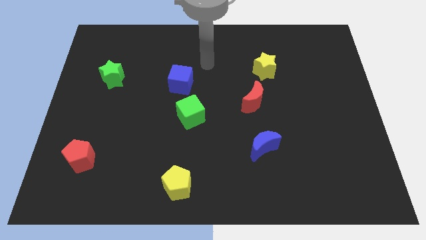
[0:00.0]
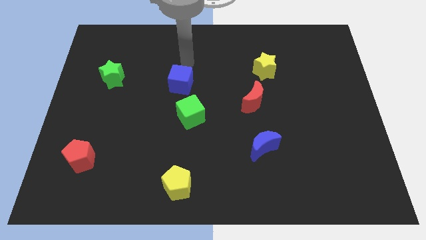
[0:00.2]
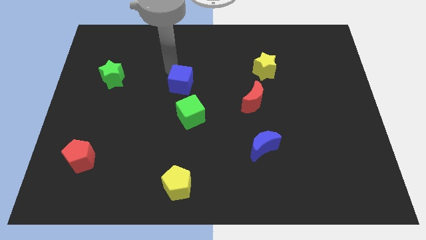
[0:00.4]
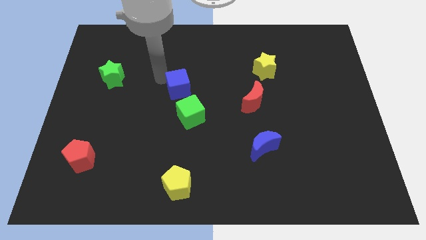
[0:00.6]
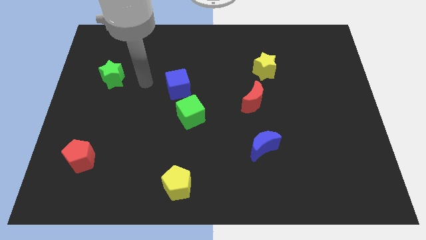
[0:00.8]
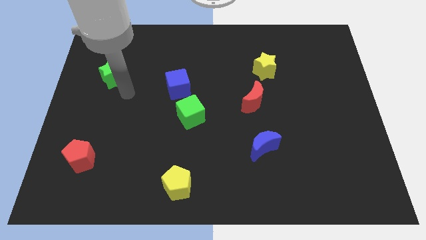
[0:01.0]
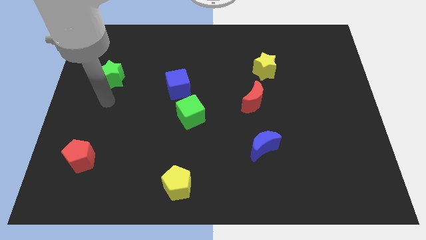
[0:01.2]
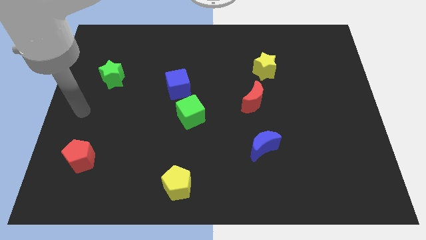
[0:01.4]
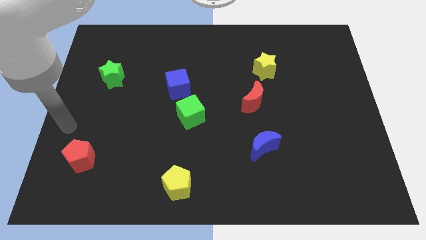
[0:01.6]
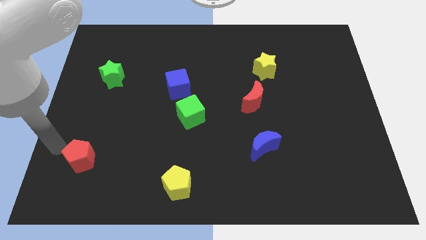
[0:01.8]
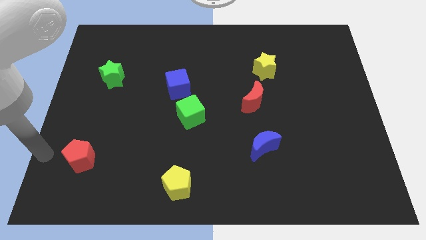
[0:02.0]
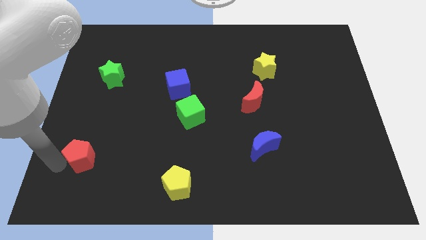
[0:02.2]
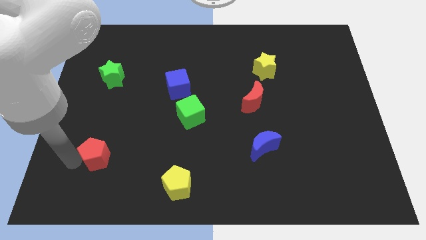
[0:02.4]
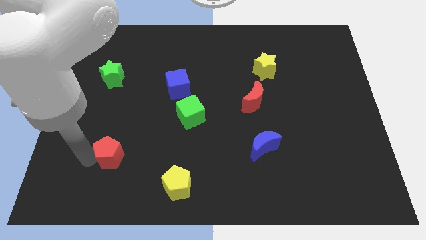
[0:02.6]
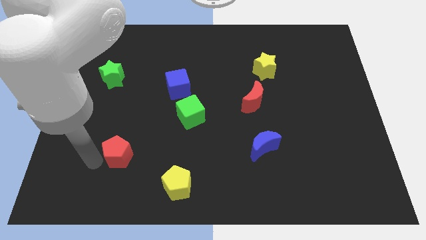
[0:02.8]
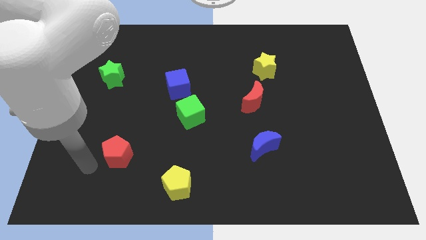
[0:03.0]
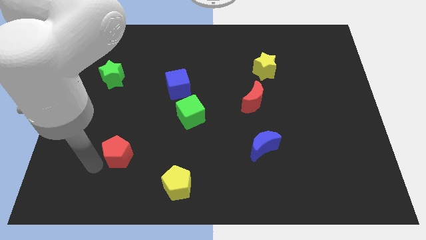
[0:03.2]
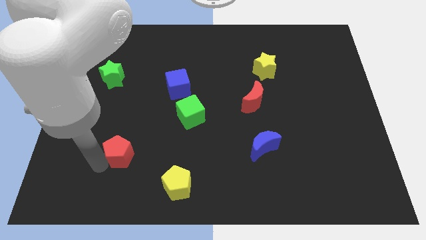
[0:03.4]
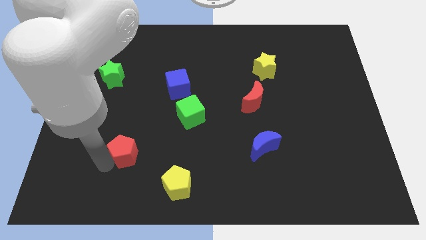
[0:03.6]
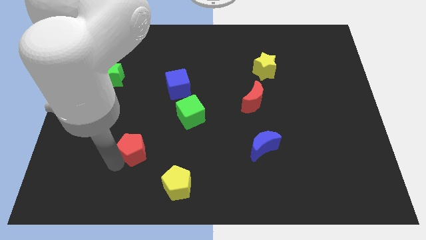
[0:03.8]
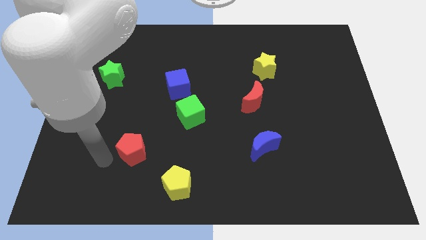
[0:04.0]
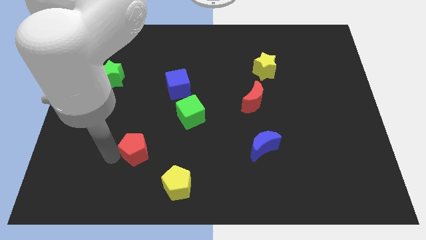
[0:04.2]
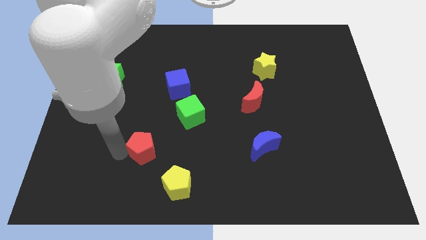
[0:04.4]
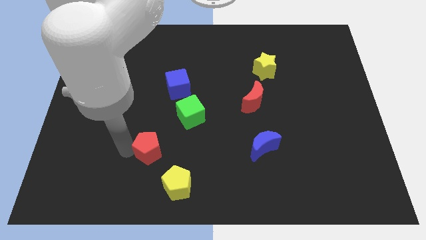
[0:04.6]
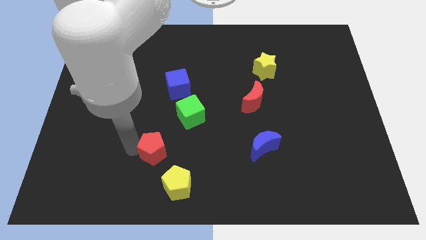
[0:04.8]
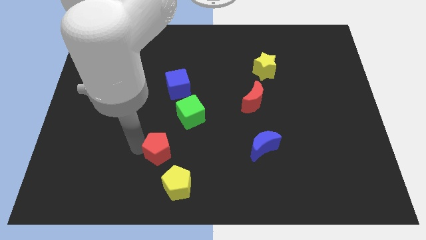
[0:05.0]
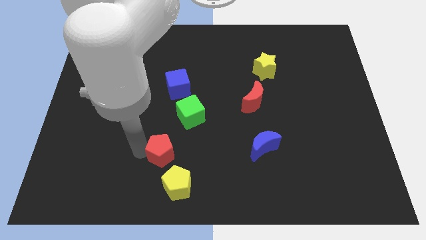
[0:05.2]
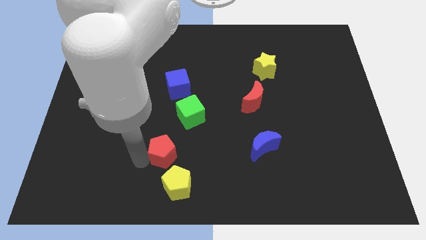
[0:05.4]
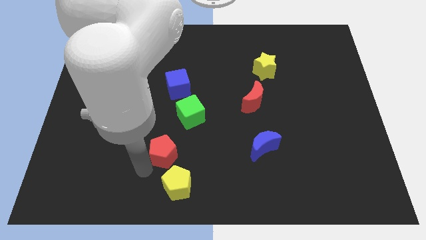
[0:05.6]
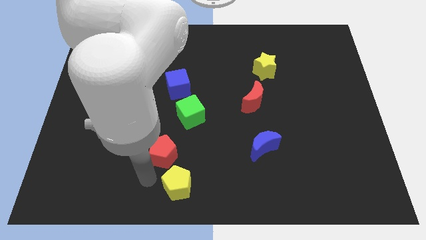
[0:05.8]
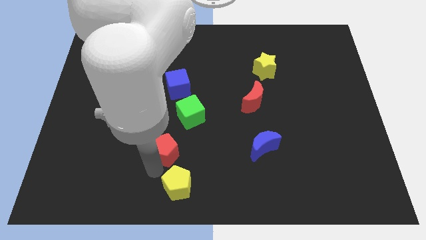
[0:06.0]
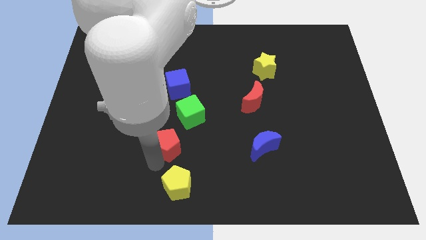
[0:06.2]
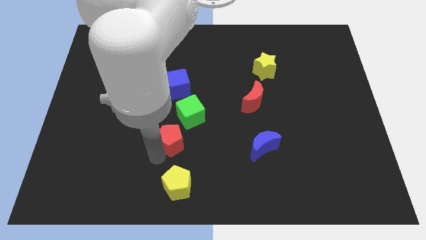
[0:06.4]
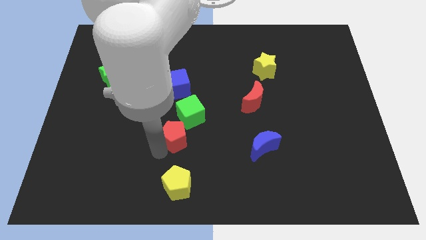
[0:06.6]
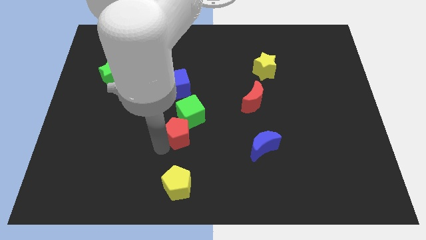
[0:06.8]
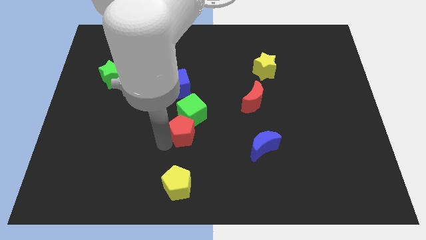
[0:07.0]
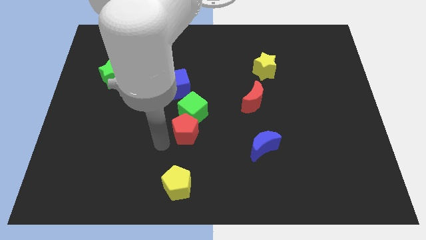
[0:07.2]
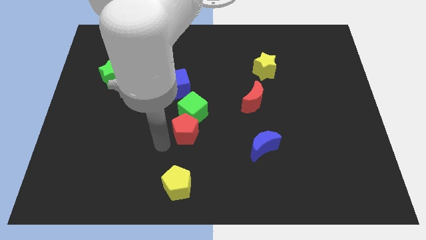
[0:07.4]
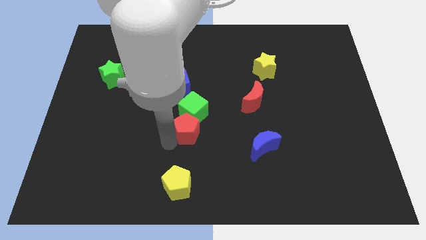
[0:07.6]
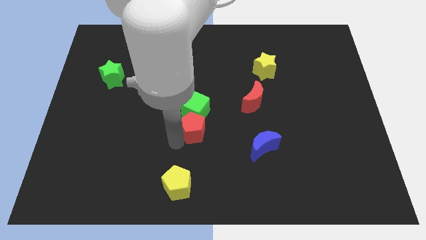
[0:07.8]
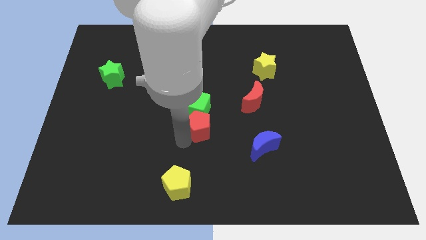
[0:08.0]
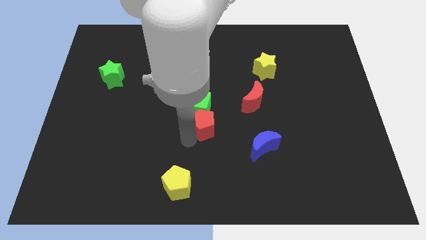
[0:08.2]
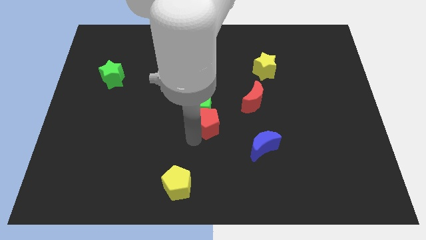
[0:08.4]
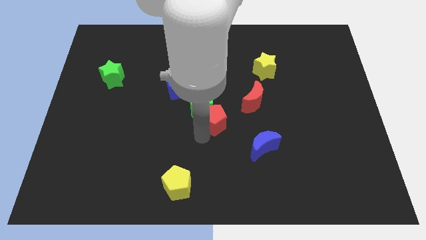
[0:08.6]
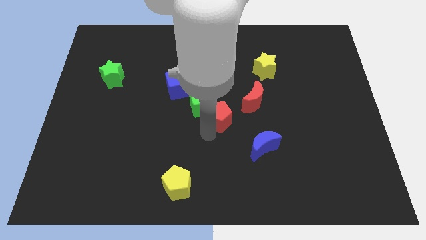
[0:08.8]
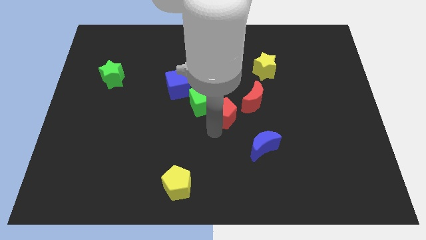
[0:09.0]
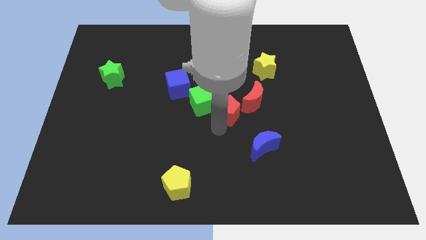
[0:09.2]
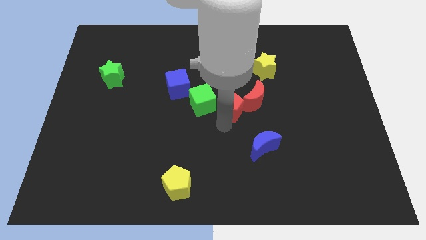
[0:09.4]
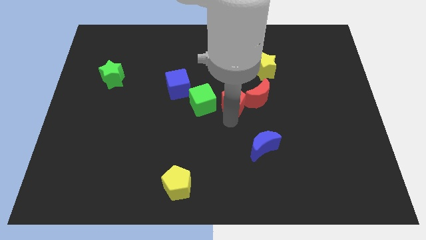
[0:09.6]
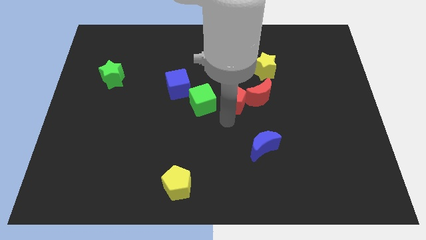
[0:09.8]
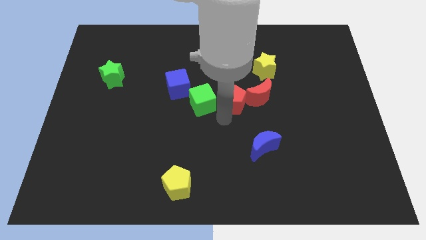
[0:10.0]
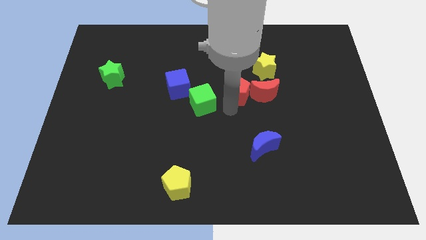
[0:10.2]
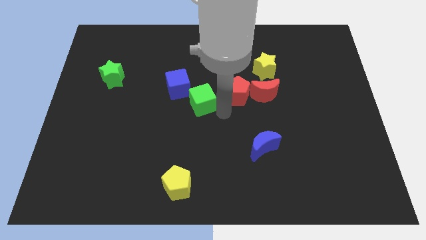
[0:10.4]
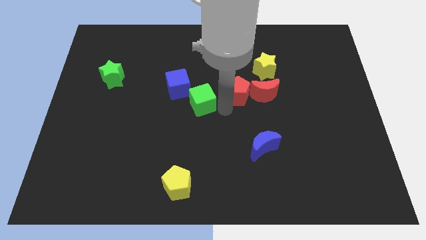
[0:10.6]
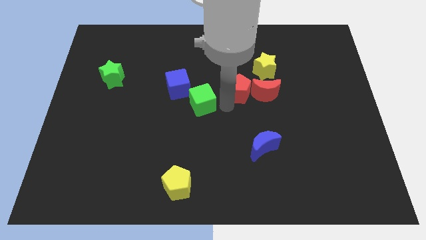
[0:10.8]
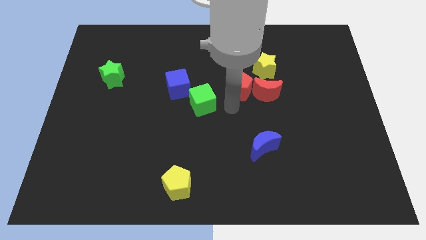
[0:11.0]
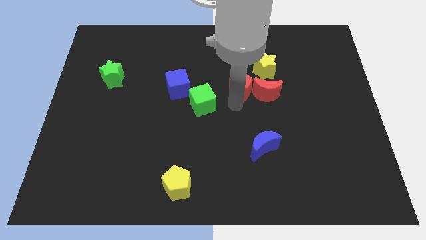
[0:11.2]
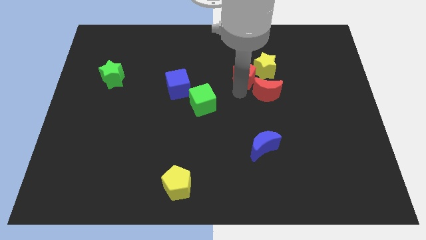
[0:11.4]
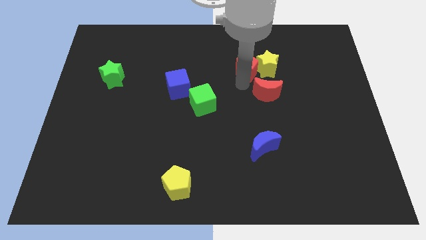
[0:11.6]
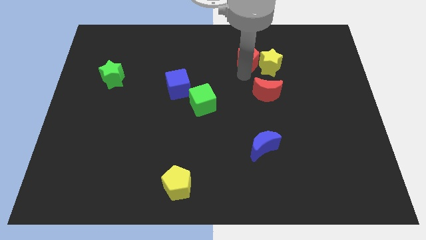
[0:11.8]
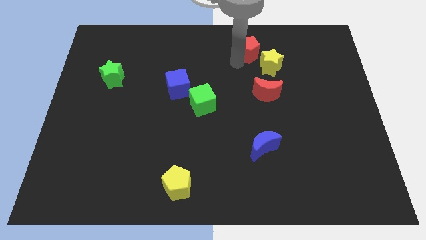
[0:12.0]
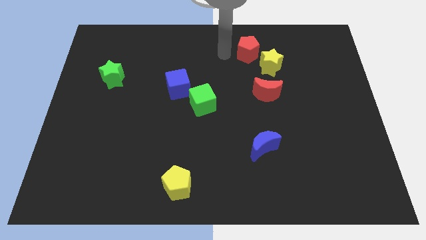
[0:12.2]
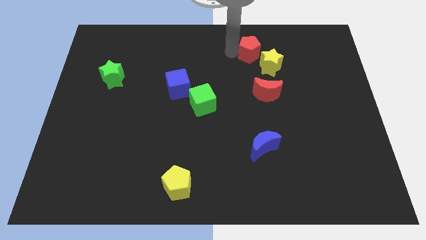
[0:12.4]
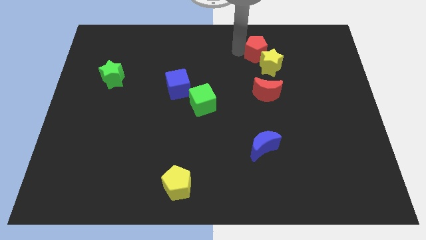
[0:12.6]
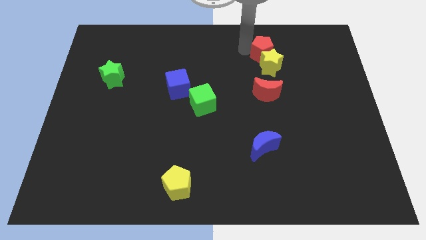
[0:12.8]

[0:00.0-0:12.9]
slide the red pentagon diagonally up and to the right of the yellow star
